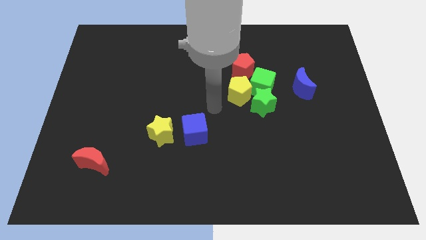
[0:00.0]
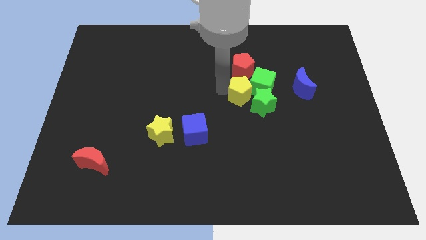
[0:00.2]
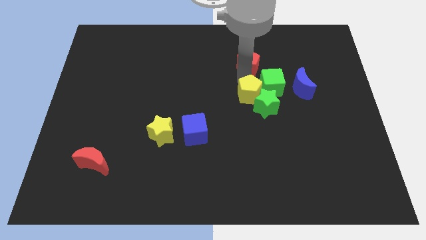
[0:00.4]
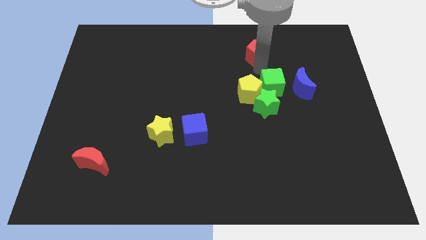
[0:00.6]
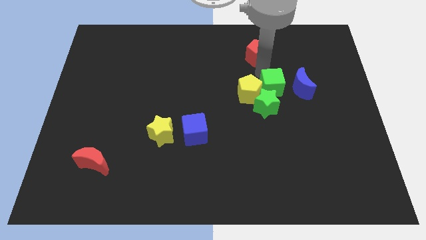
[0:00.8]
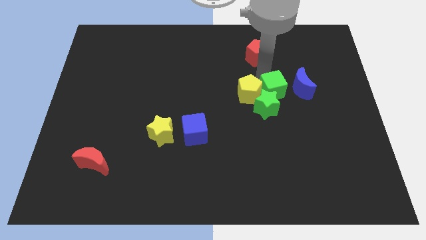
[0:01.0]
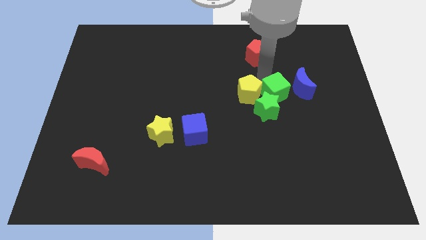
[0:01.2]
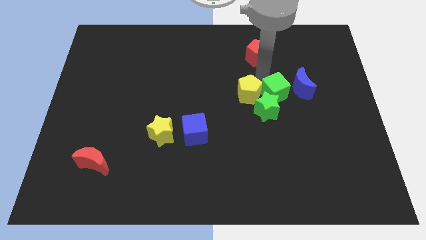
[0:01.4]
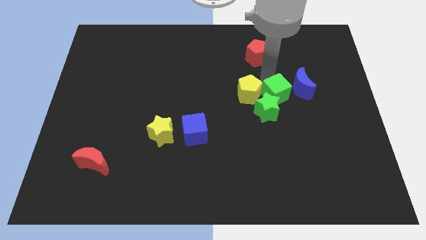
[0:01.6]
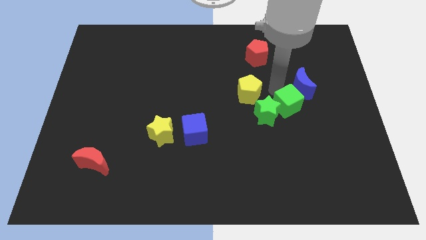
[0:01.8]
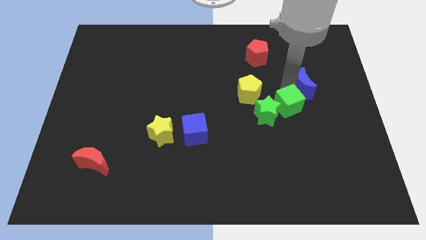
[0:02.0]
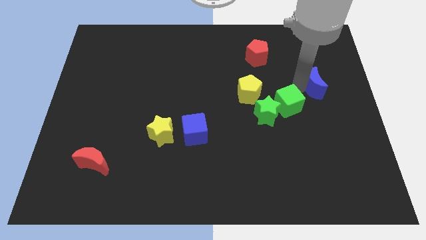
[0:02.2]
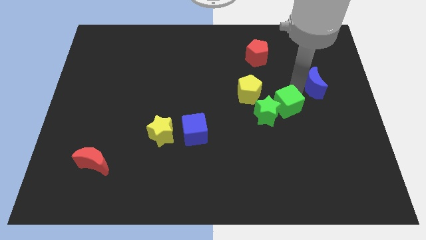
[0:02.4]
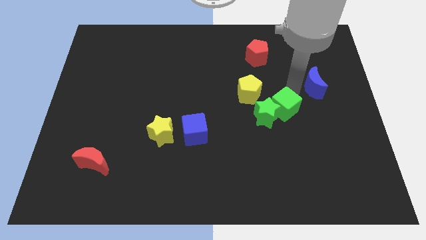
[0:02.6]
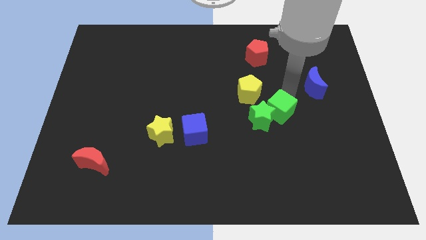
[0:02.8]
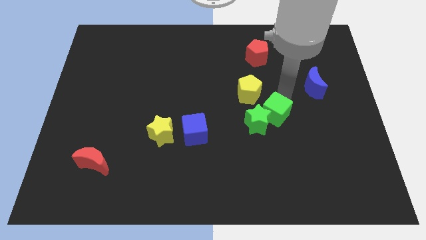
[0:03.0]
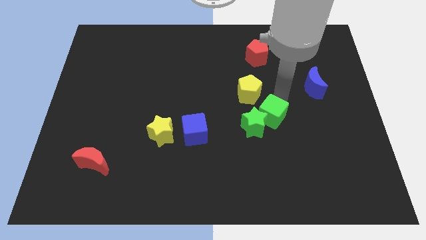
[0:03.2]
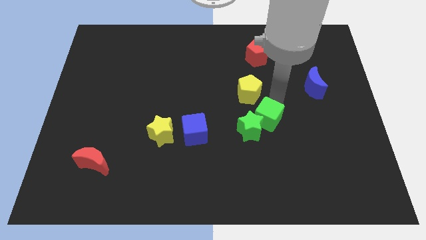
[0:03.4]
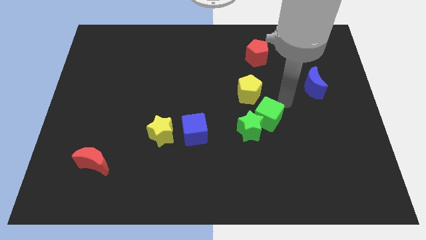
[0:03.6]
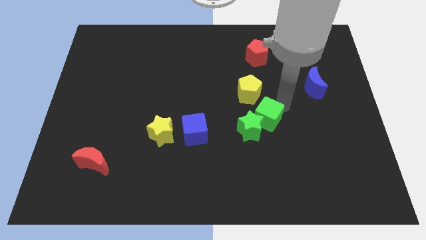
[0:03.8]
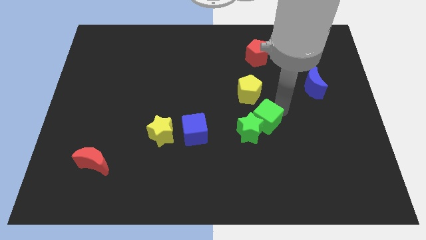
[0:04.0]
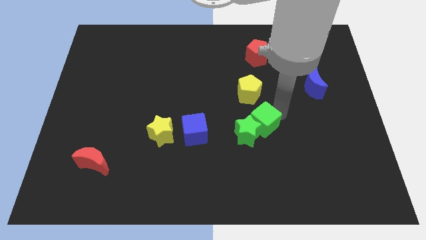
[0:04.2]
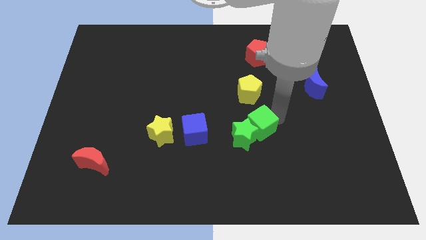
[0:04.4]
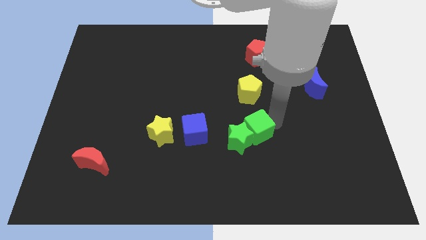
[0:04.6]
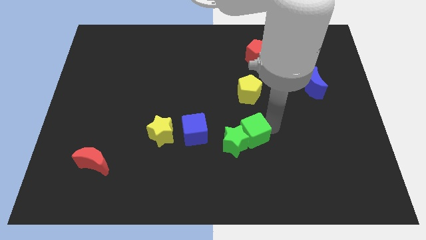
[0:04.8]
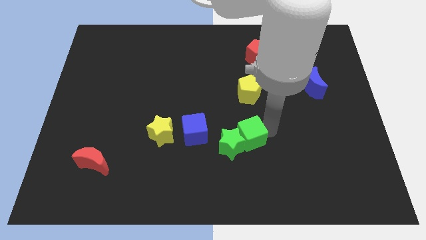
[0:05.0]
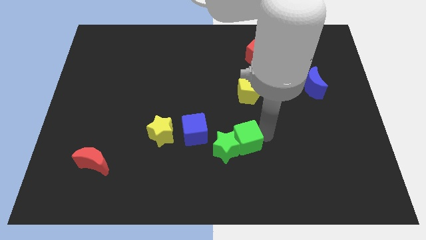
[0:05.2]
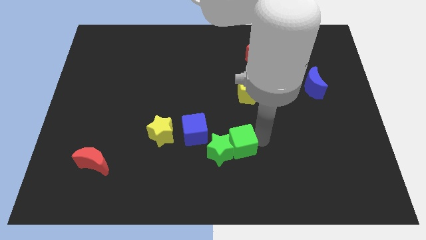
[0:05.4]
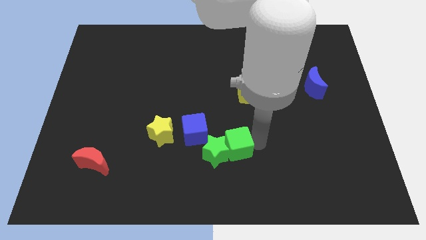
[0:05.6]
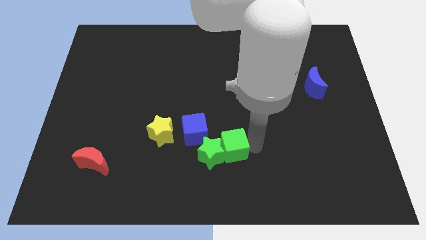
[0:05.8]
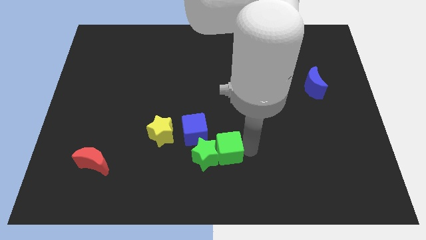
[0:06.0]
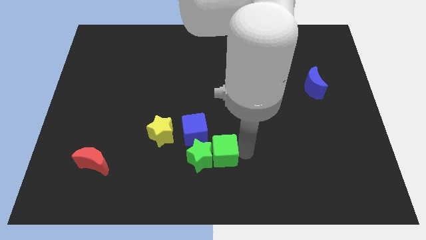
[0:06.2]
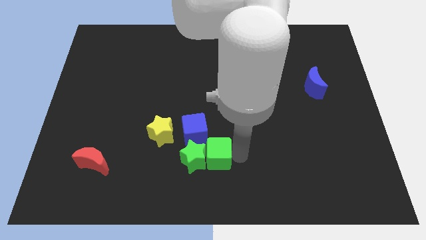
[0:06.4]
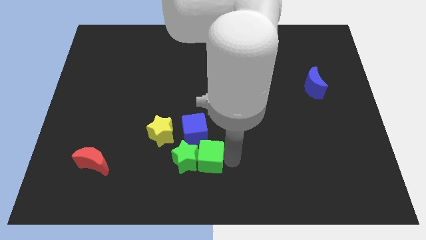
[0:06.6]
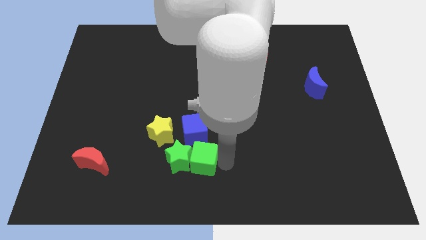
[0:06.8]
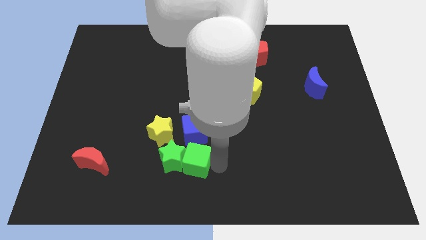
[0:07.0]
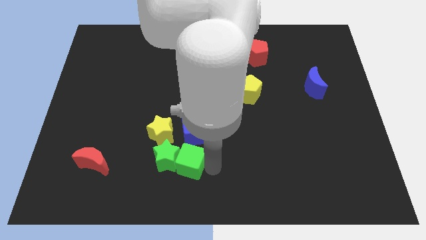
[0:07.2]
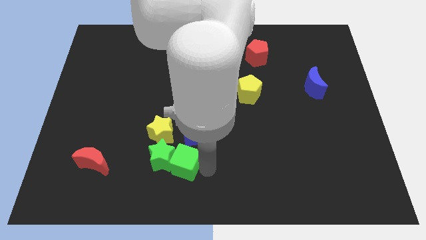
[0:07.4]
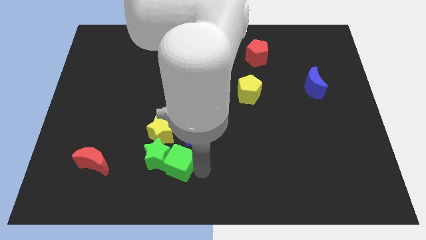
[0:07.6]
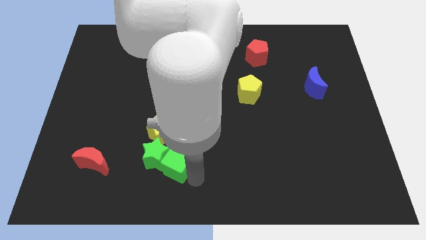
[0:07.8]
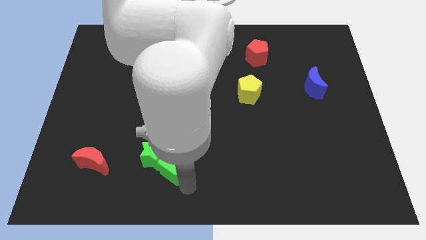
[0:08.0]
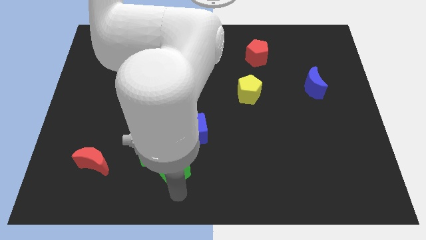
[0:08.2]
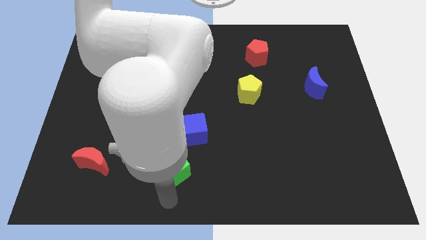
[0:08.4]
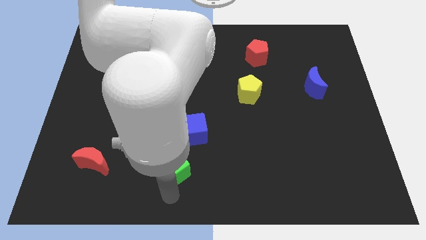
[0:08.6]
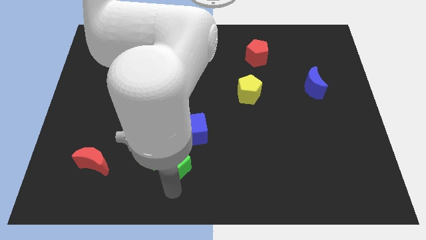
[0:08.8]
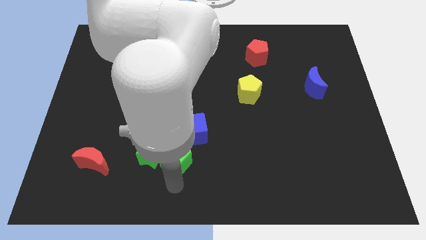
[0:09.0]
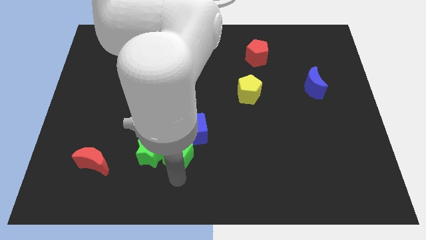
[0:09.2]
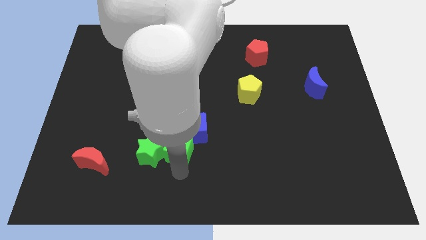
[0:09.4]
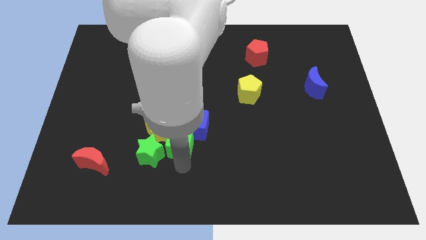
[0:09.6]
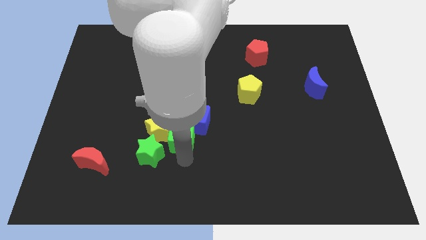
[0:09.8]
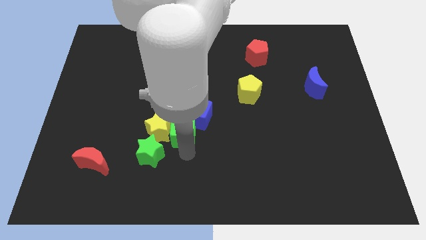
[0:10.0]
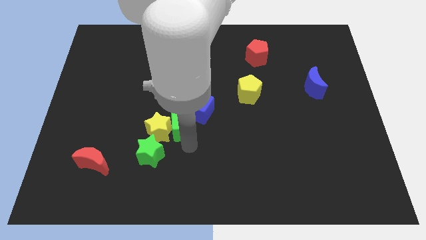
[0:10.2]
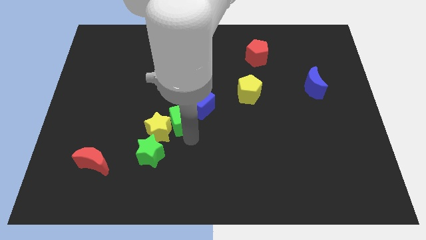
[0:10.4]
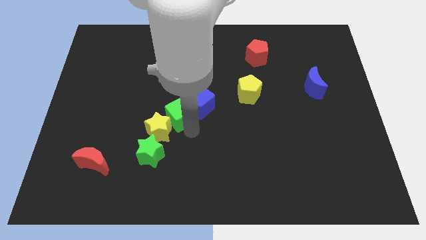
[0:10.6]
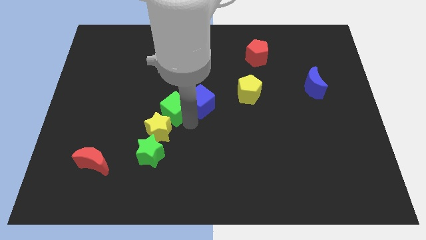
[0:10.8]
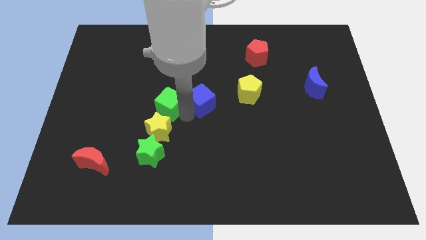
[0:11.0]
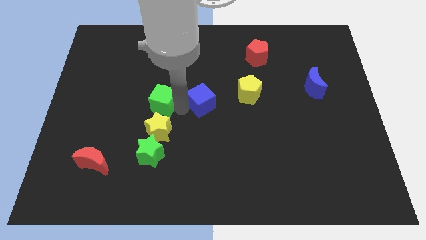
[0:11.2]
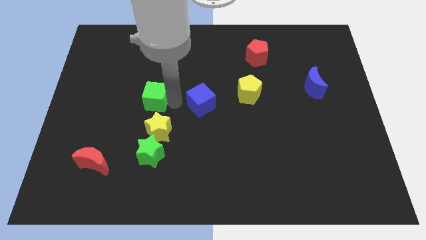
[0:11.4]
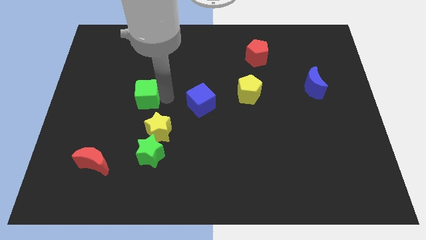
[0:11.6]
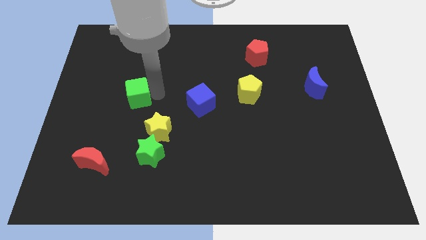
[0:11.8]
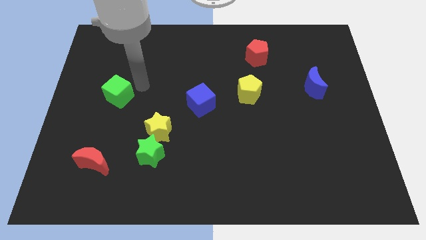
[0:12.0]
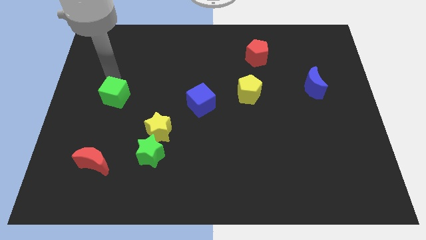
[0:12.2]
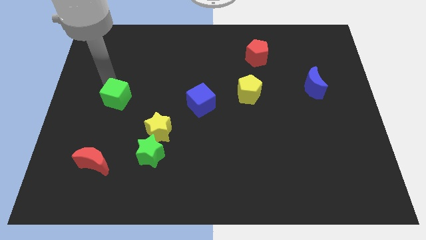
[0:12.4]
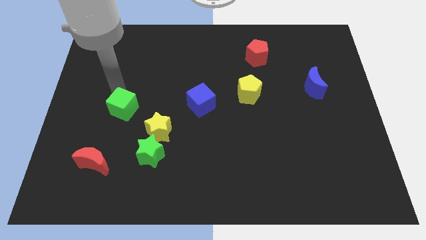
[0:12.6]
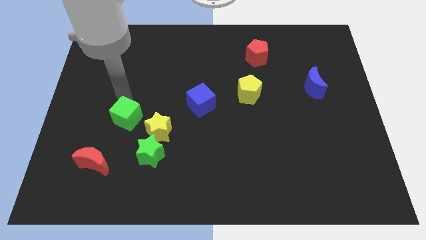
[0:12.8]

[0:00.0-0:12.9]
slide the green cube to the left of the yellow star
